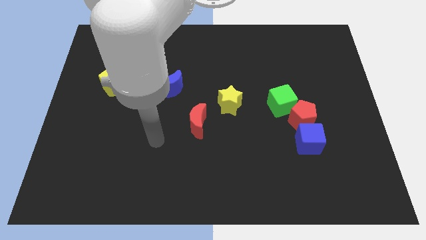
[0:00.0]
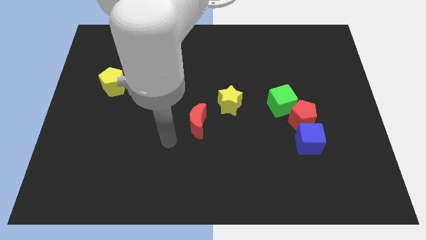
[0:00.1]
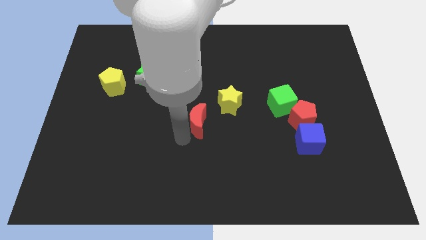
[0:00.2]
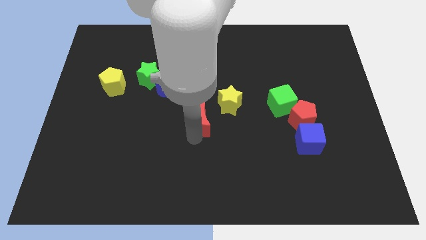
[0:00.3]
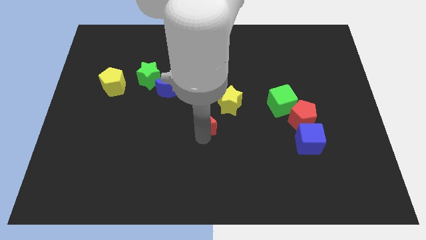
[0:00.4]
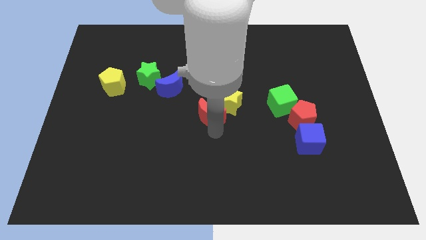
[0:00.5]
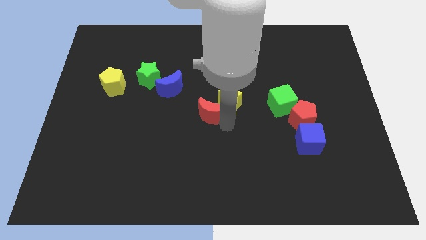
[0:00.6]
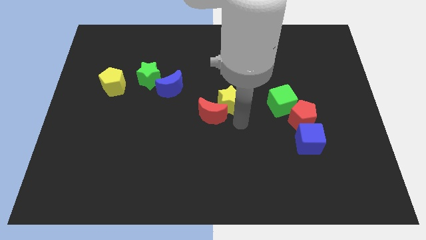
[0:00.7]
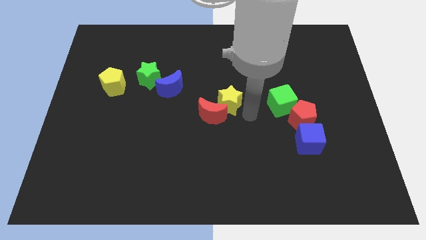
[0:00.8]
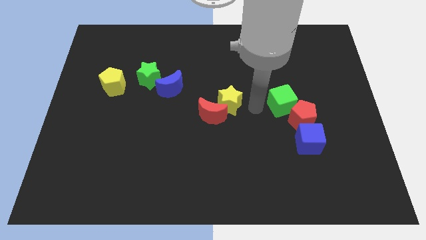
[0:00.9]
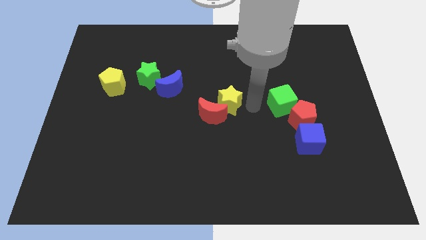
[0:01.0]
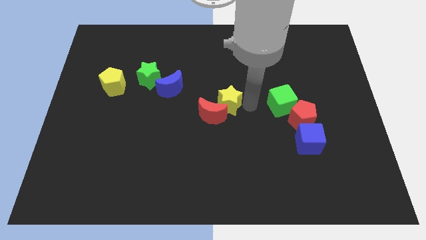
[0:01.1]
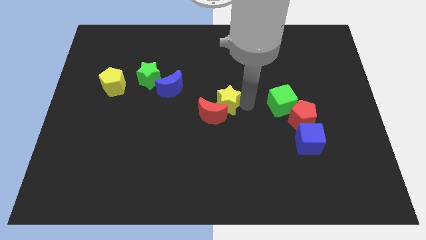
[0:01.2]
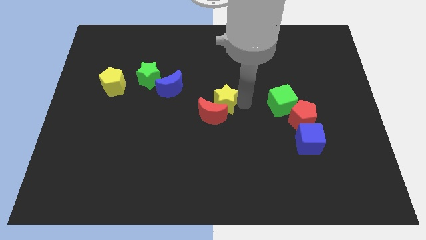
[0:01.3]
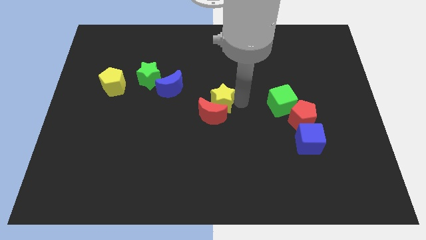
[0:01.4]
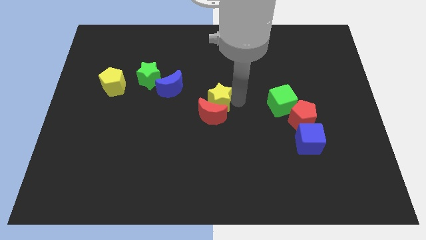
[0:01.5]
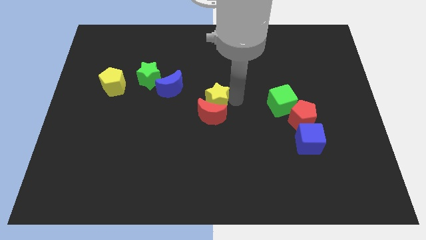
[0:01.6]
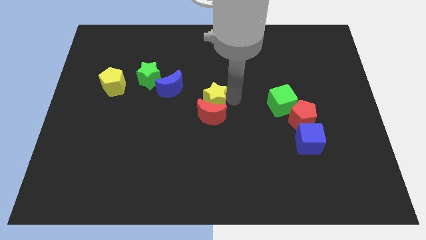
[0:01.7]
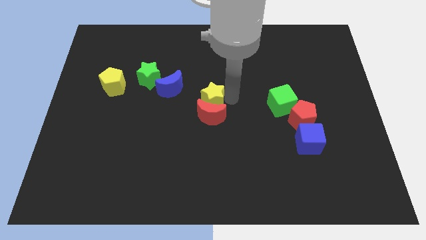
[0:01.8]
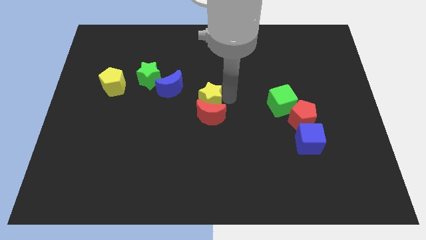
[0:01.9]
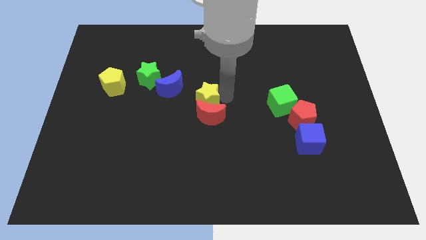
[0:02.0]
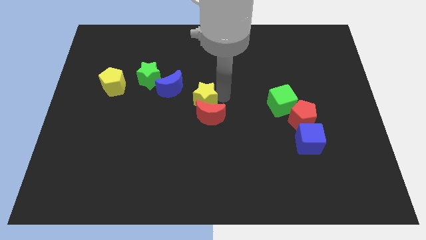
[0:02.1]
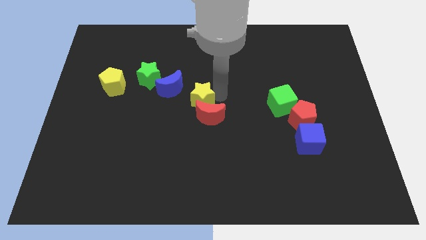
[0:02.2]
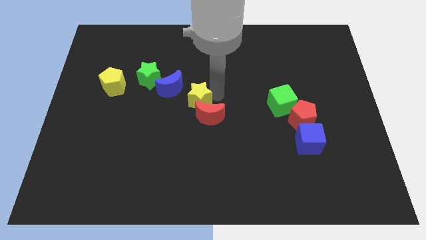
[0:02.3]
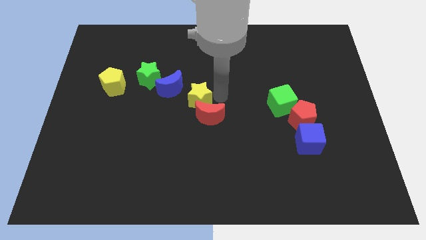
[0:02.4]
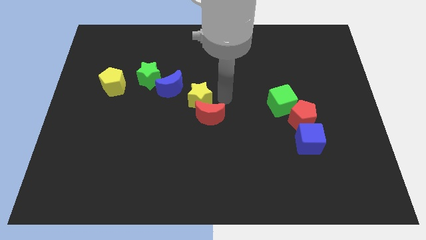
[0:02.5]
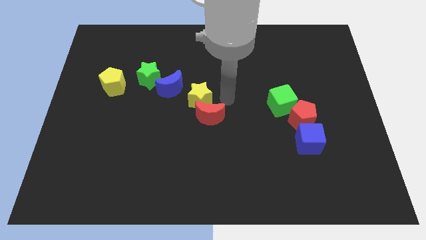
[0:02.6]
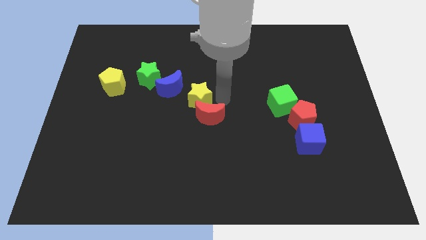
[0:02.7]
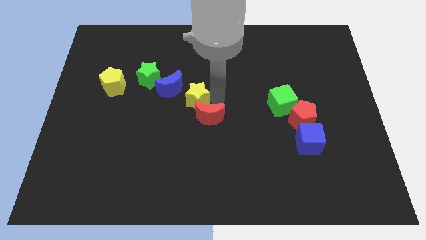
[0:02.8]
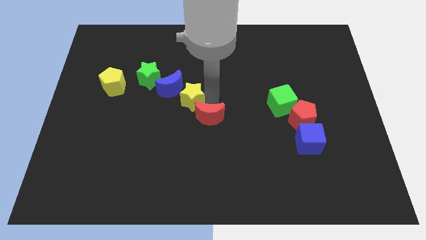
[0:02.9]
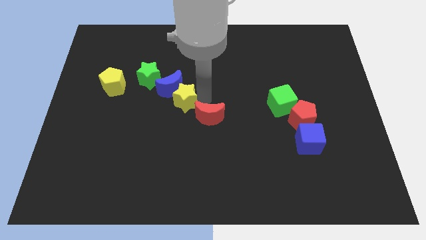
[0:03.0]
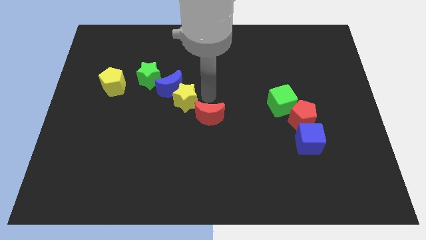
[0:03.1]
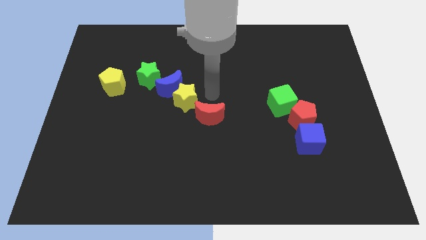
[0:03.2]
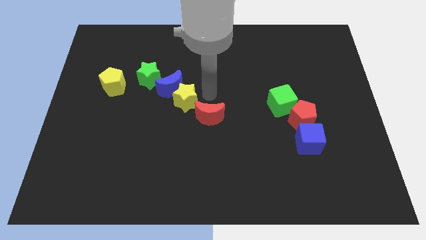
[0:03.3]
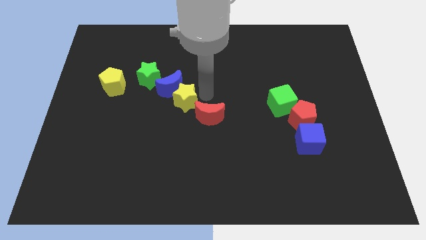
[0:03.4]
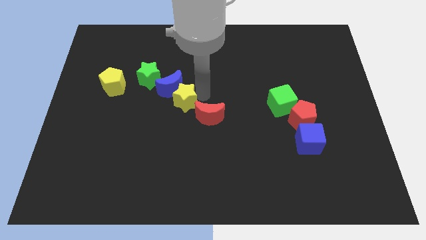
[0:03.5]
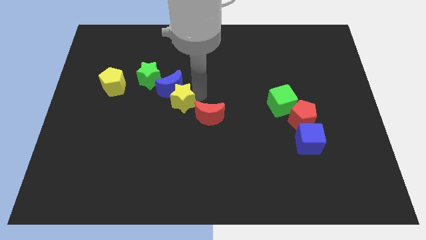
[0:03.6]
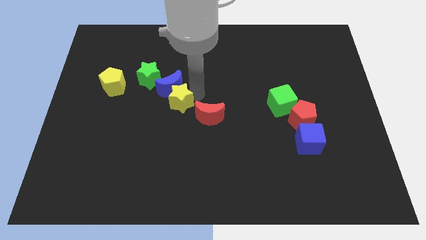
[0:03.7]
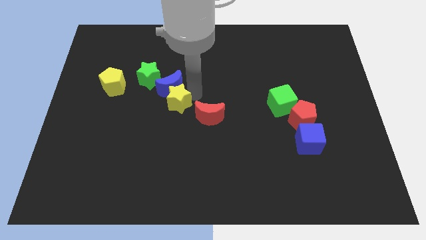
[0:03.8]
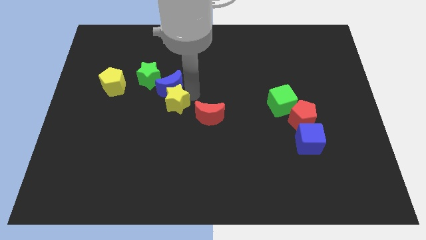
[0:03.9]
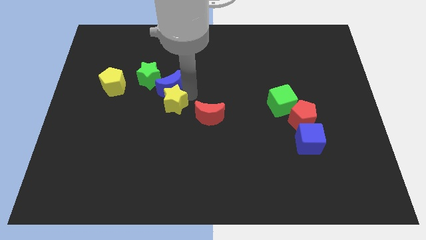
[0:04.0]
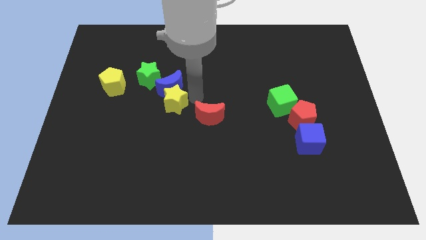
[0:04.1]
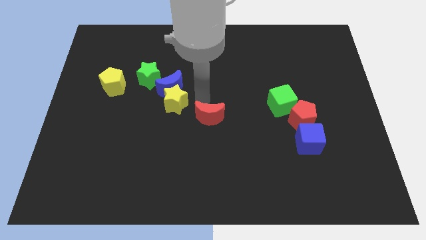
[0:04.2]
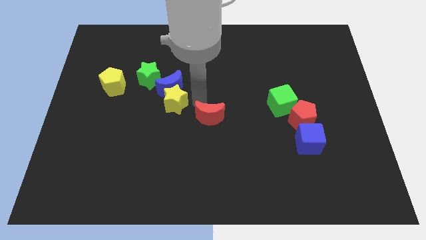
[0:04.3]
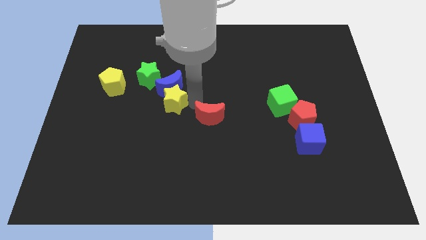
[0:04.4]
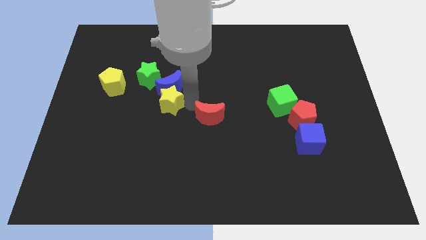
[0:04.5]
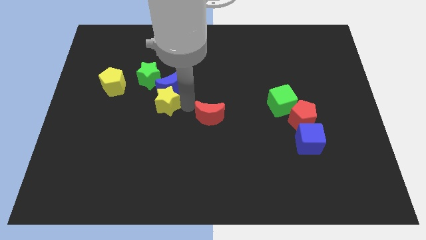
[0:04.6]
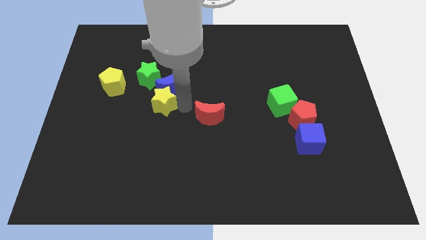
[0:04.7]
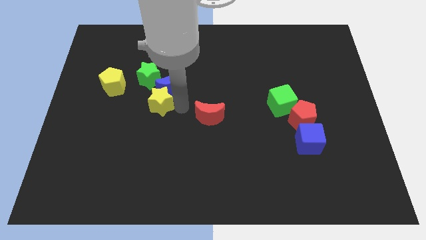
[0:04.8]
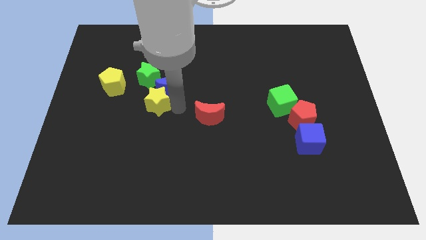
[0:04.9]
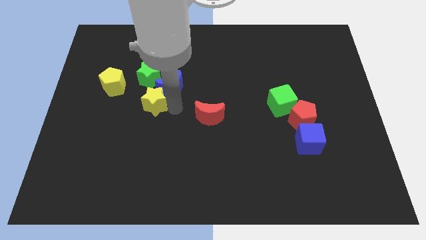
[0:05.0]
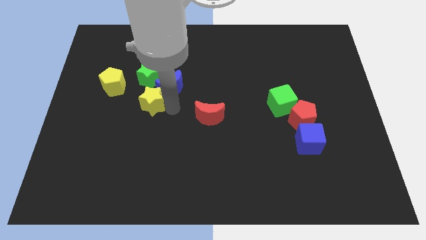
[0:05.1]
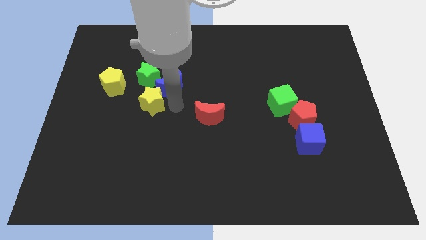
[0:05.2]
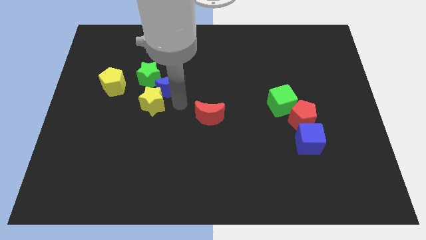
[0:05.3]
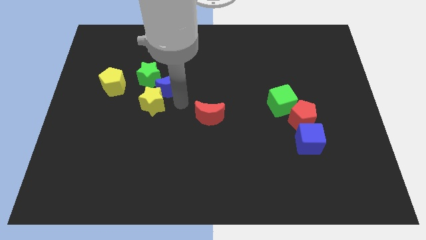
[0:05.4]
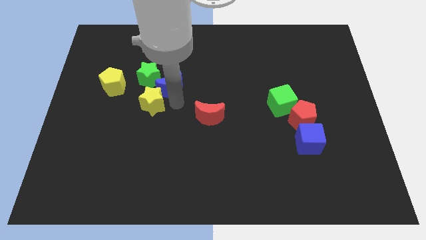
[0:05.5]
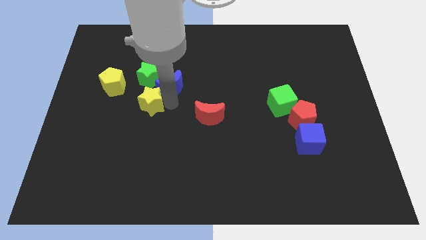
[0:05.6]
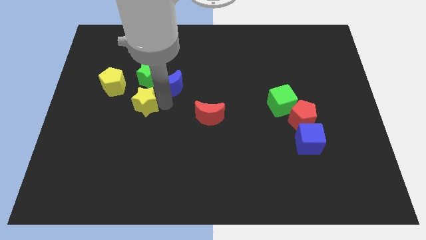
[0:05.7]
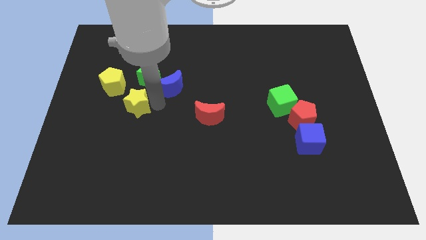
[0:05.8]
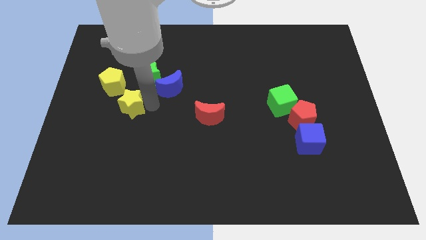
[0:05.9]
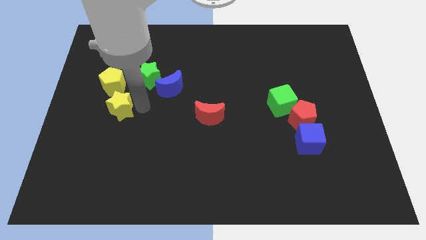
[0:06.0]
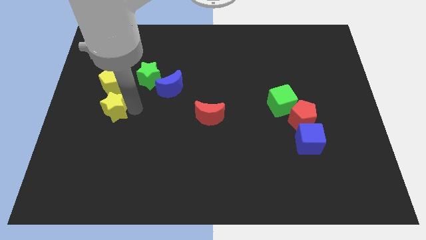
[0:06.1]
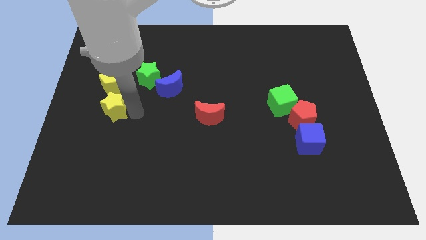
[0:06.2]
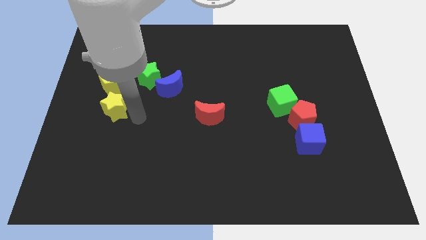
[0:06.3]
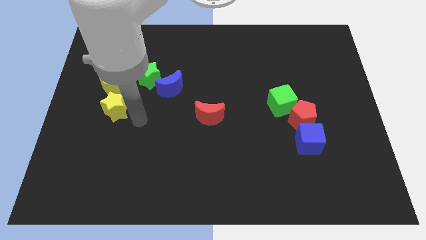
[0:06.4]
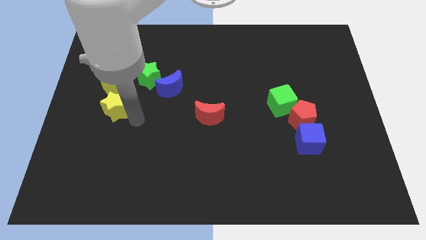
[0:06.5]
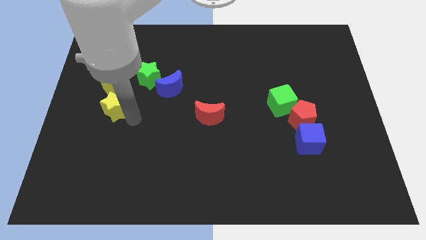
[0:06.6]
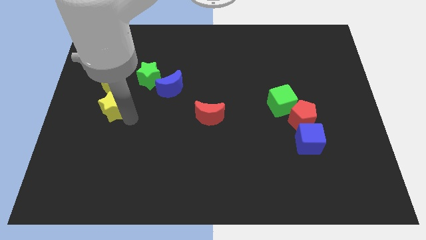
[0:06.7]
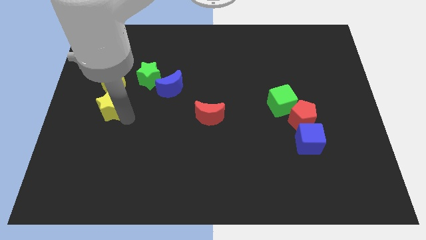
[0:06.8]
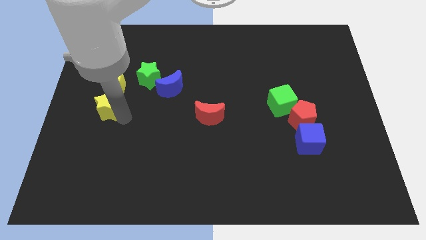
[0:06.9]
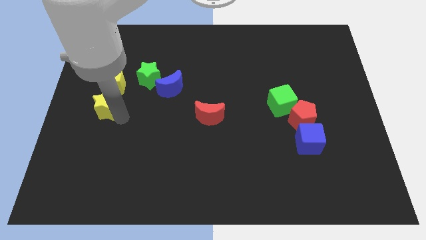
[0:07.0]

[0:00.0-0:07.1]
slide the yellow star to the center left
